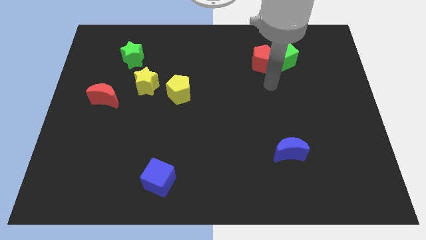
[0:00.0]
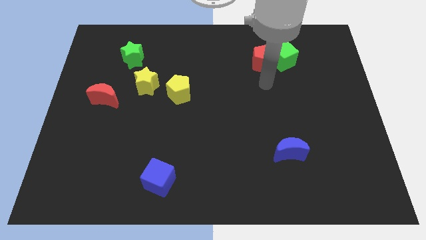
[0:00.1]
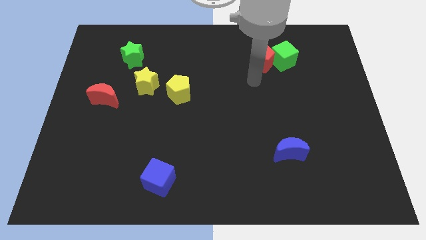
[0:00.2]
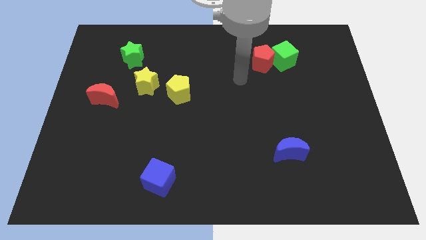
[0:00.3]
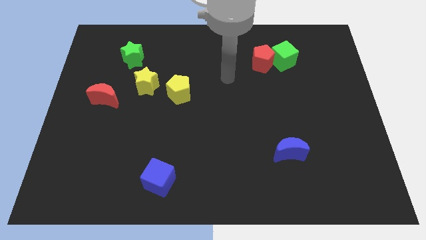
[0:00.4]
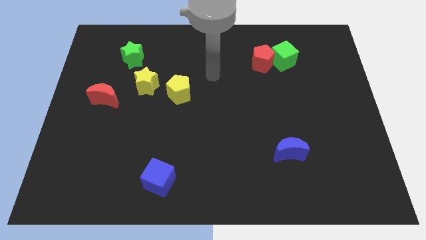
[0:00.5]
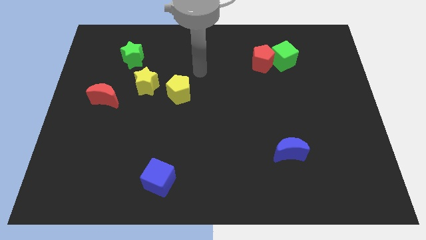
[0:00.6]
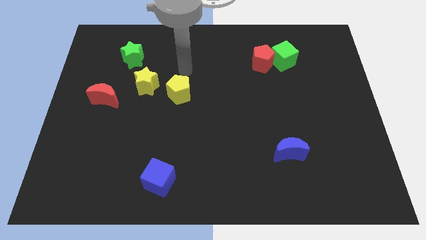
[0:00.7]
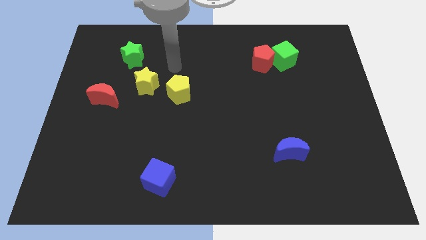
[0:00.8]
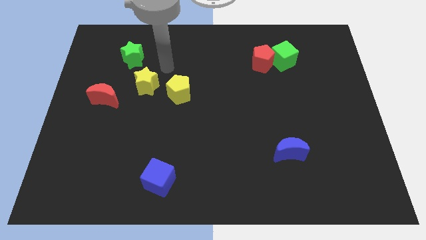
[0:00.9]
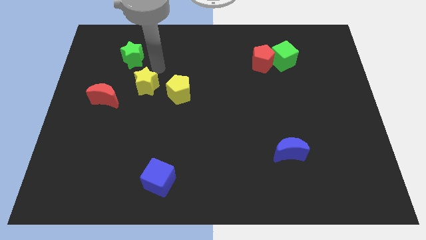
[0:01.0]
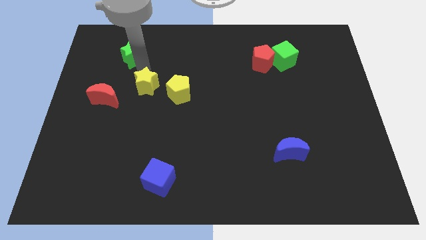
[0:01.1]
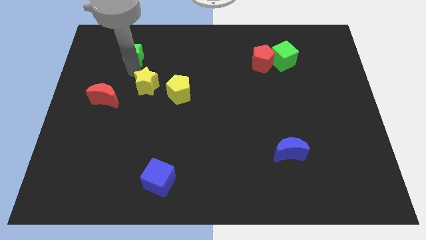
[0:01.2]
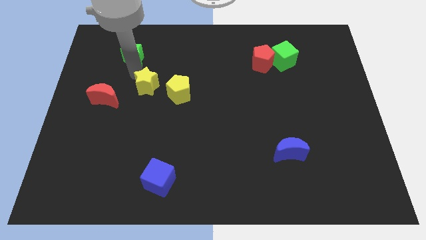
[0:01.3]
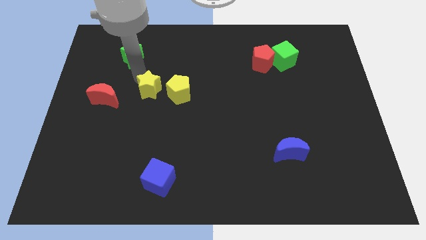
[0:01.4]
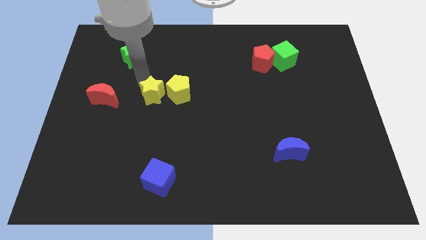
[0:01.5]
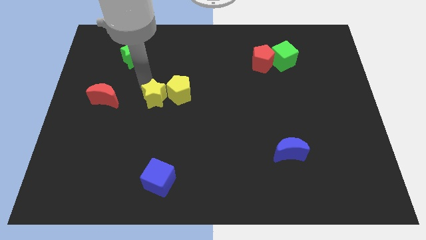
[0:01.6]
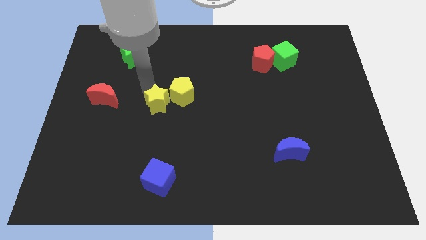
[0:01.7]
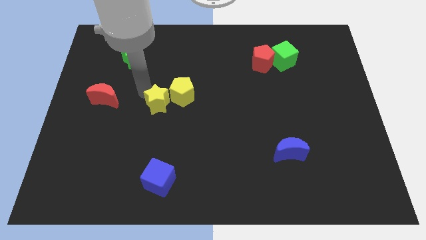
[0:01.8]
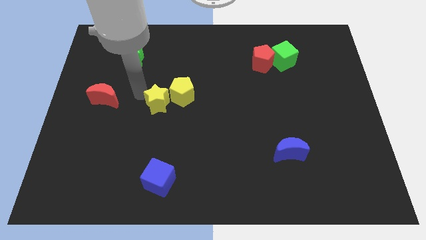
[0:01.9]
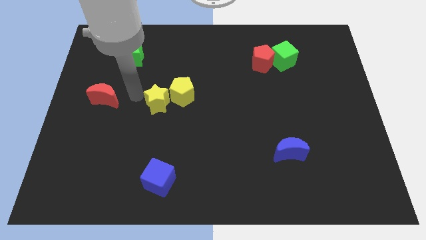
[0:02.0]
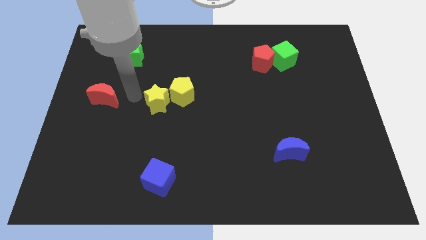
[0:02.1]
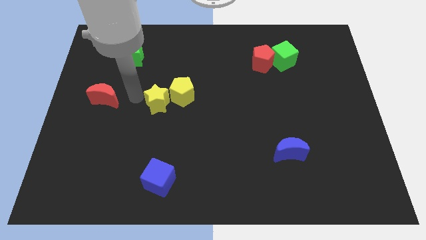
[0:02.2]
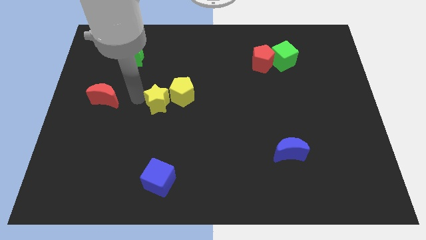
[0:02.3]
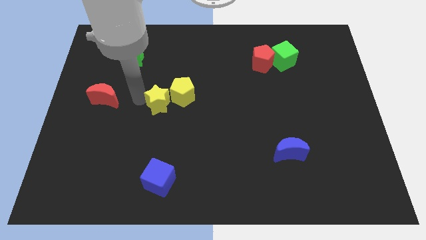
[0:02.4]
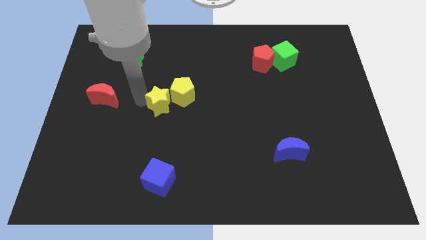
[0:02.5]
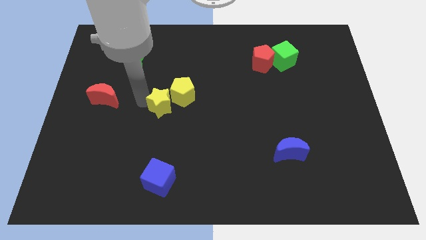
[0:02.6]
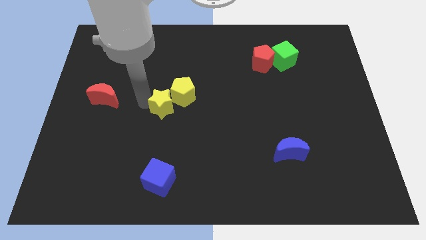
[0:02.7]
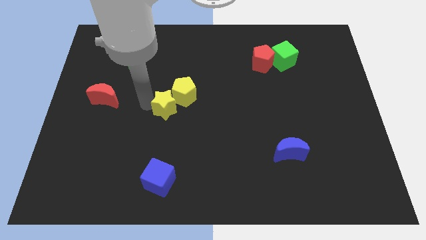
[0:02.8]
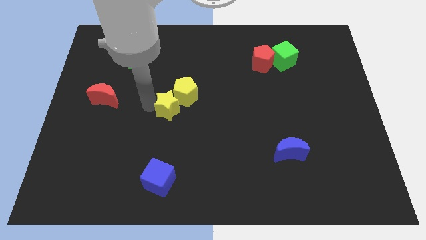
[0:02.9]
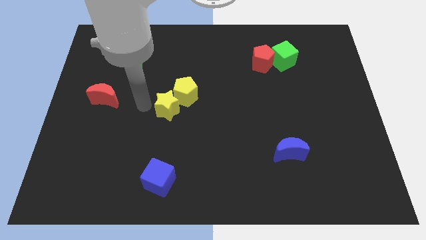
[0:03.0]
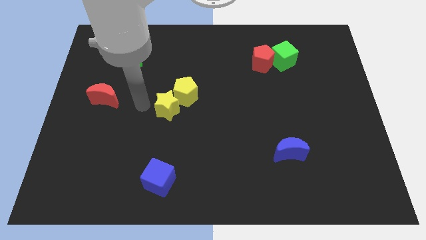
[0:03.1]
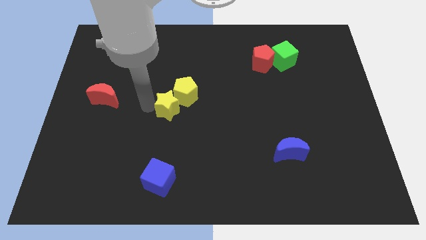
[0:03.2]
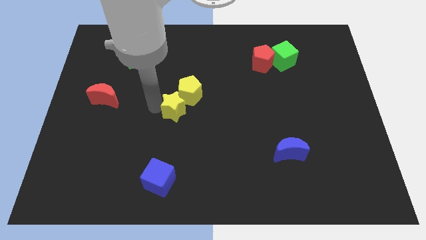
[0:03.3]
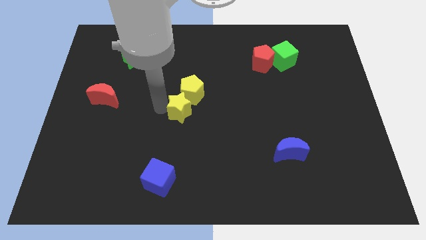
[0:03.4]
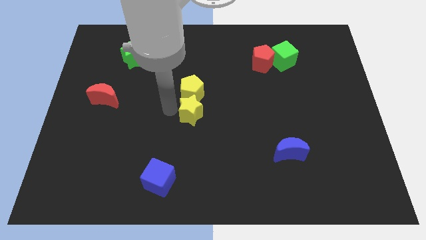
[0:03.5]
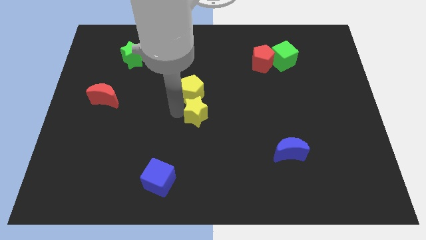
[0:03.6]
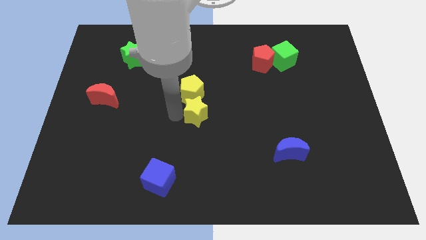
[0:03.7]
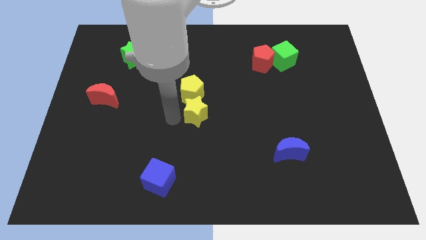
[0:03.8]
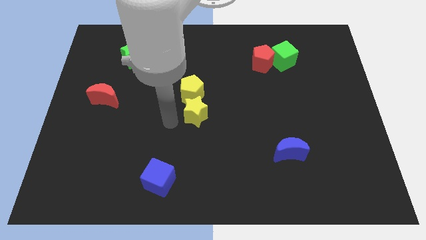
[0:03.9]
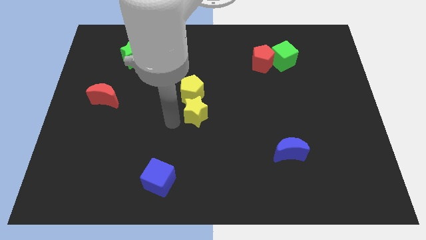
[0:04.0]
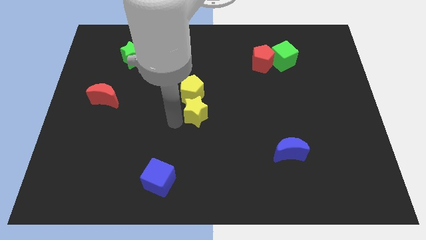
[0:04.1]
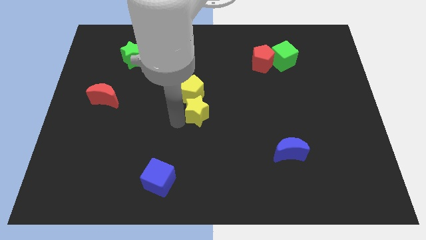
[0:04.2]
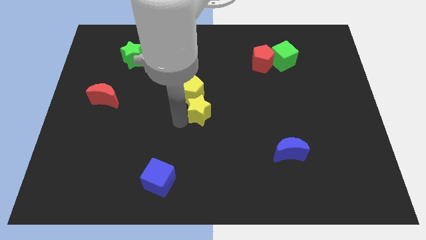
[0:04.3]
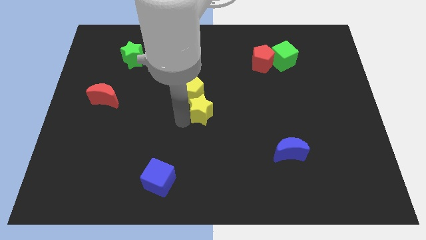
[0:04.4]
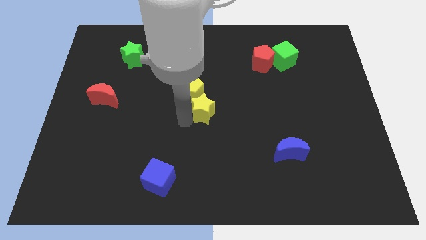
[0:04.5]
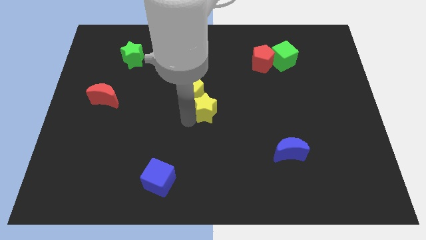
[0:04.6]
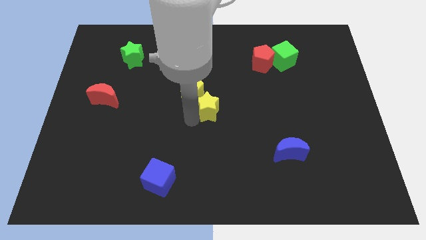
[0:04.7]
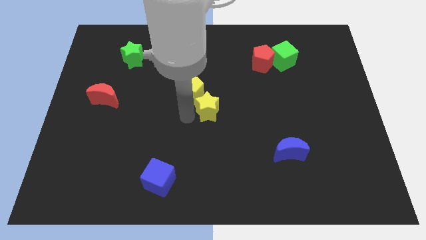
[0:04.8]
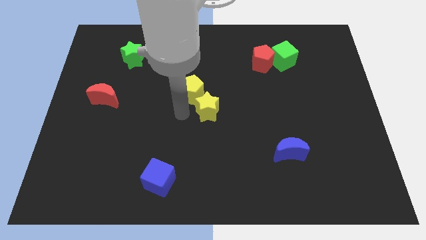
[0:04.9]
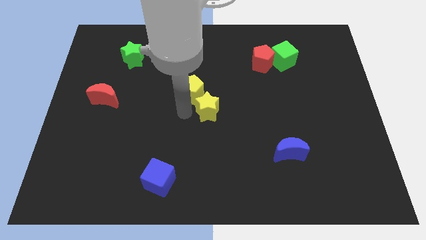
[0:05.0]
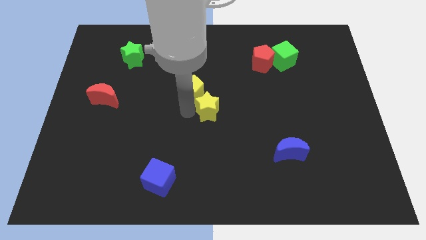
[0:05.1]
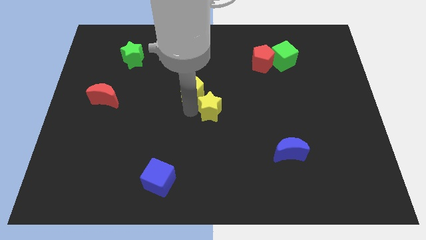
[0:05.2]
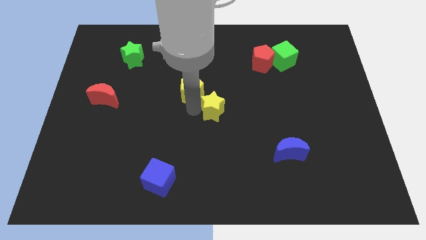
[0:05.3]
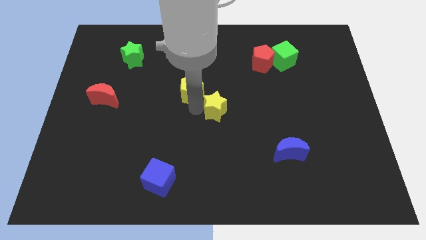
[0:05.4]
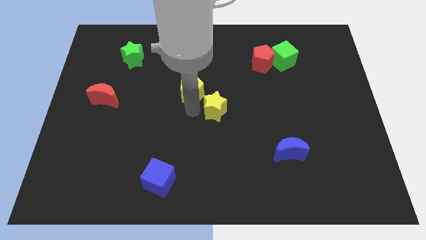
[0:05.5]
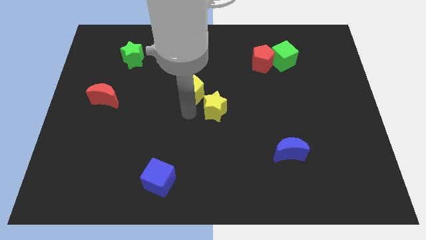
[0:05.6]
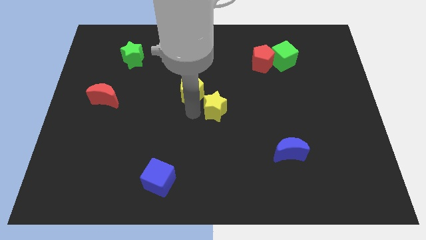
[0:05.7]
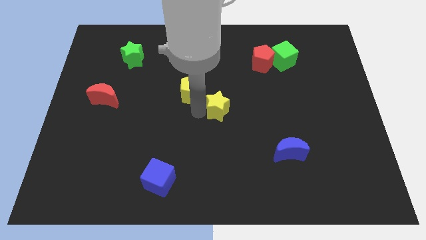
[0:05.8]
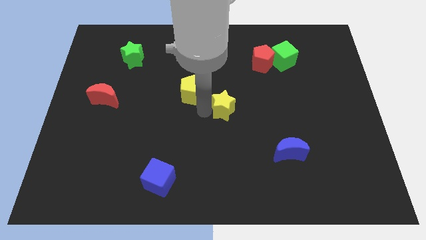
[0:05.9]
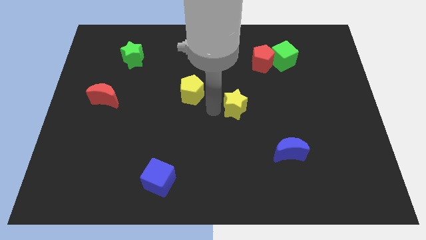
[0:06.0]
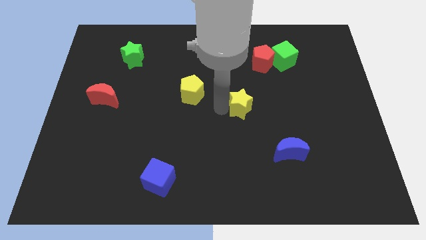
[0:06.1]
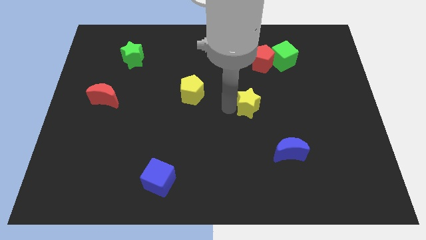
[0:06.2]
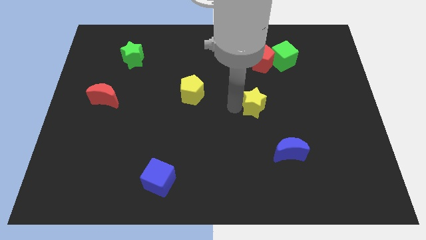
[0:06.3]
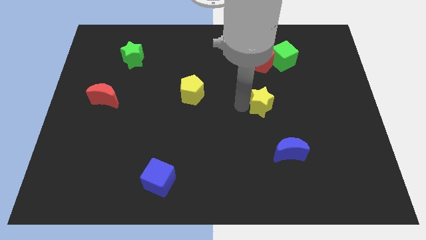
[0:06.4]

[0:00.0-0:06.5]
put the yellow star to the top side of the blue moon

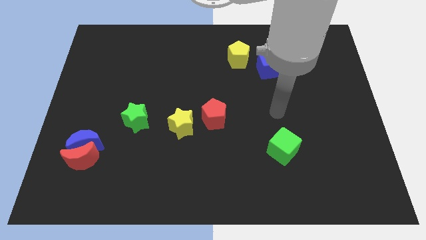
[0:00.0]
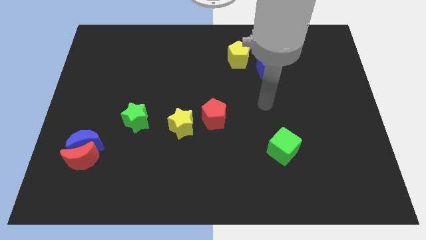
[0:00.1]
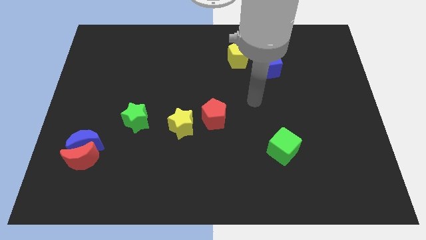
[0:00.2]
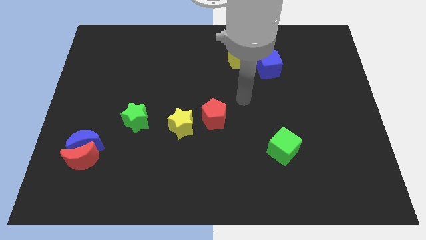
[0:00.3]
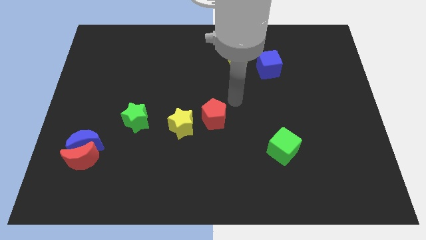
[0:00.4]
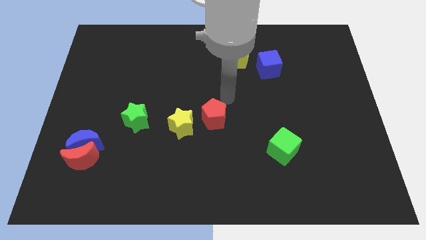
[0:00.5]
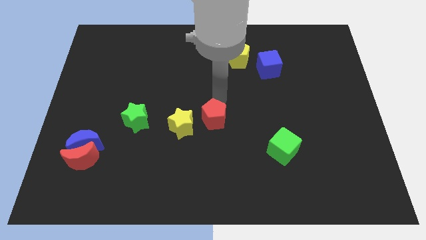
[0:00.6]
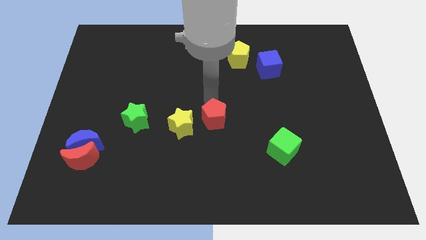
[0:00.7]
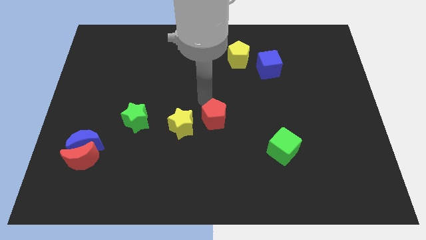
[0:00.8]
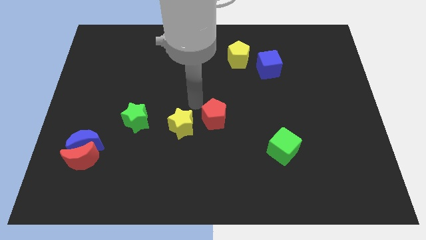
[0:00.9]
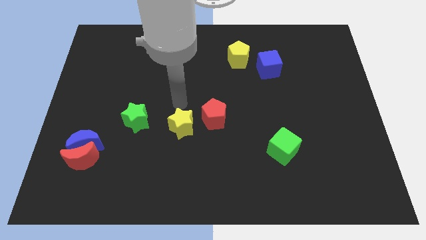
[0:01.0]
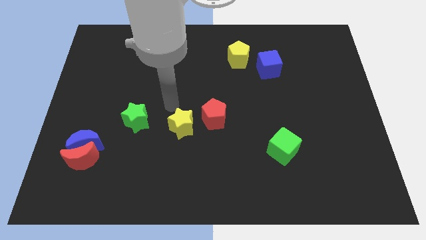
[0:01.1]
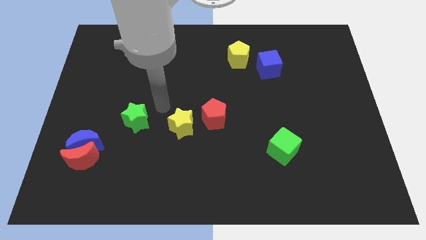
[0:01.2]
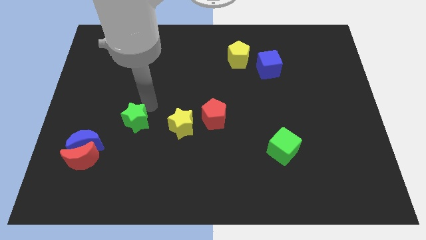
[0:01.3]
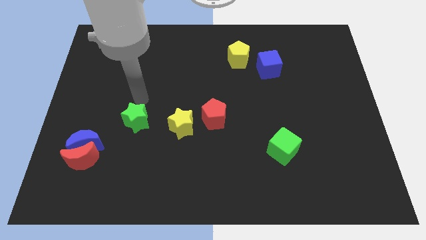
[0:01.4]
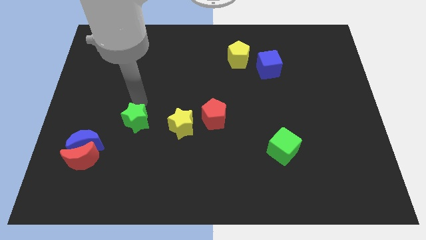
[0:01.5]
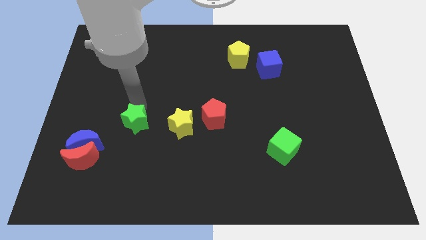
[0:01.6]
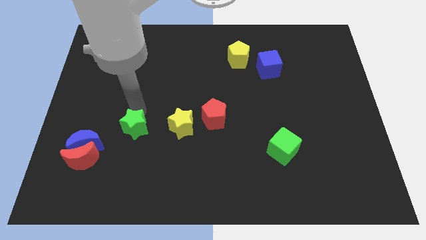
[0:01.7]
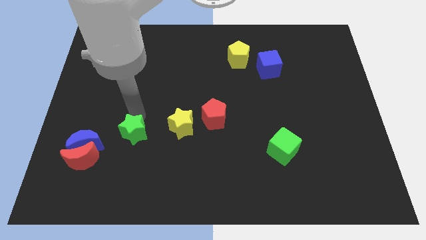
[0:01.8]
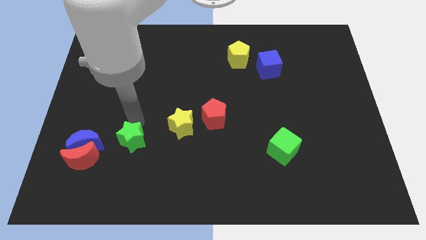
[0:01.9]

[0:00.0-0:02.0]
put the green star to the right of the red moon
